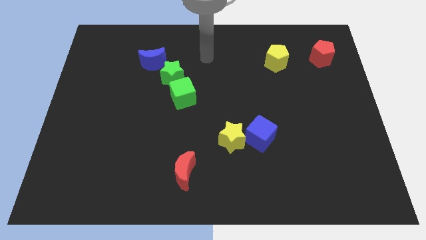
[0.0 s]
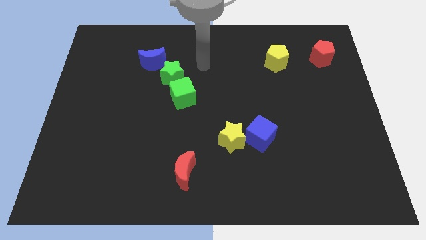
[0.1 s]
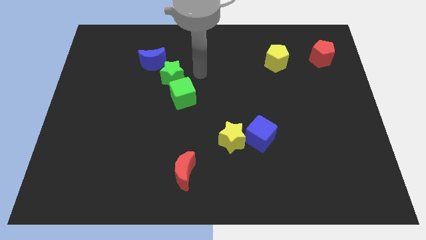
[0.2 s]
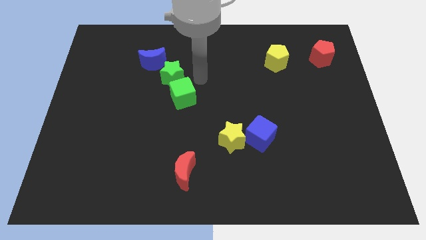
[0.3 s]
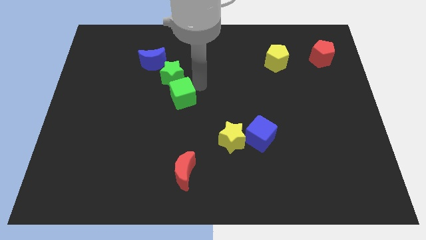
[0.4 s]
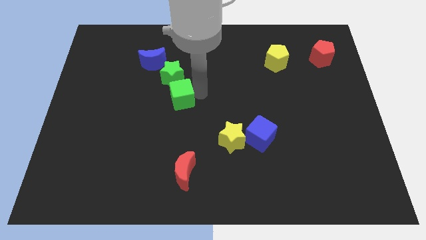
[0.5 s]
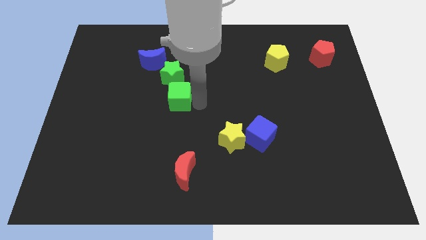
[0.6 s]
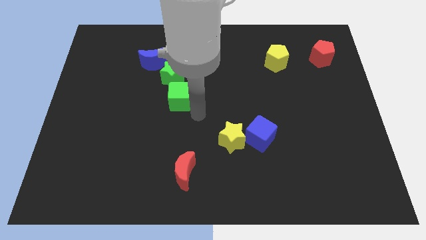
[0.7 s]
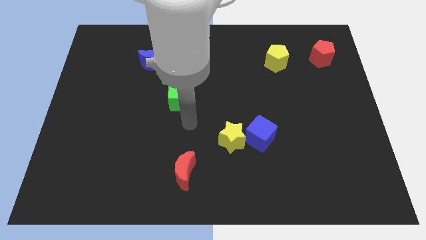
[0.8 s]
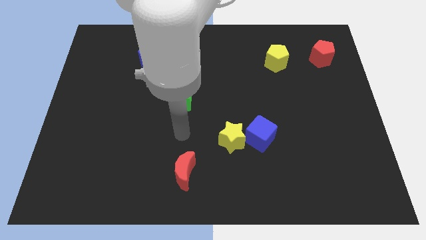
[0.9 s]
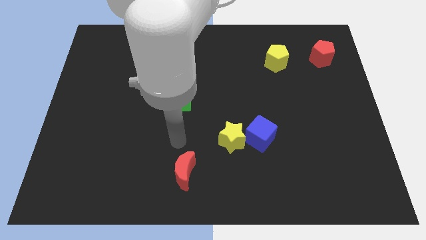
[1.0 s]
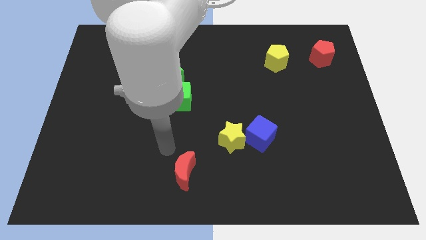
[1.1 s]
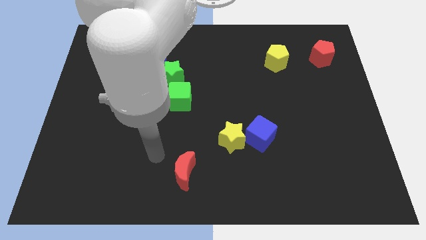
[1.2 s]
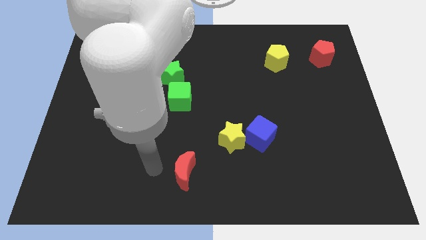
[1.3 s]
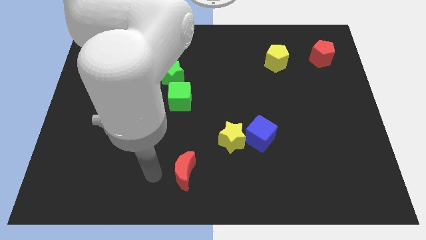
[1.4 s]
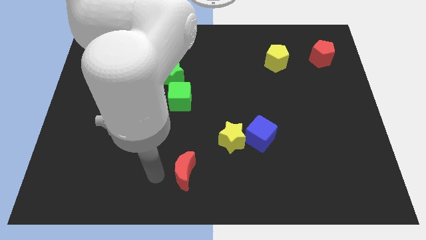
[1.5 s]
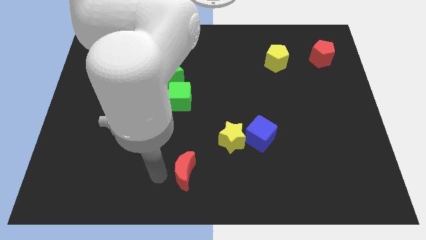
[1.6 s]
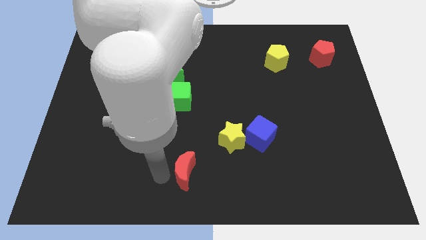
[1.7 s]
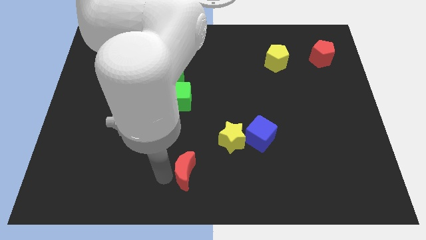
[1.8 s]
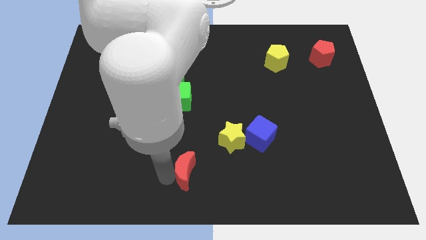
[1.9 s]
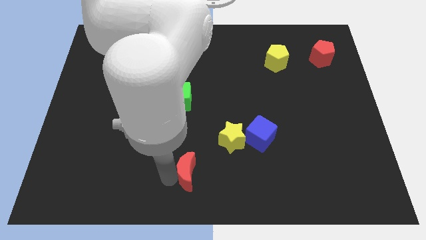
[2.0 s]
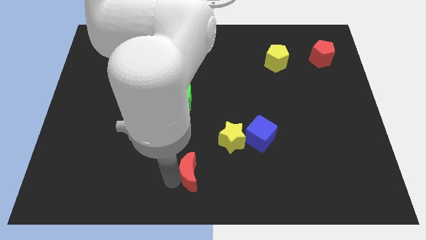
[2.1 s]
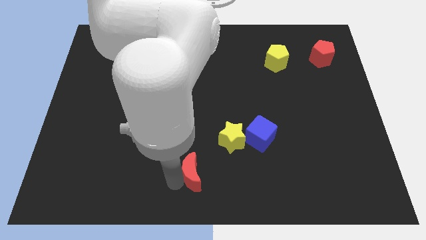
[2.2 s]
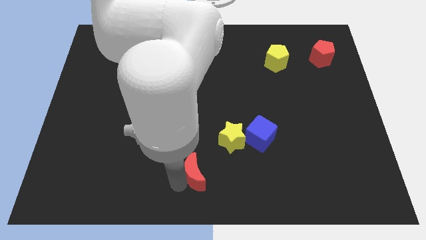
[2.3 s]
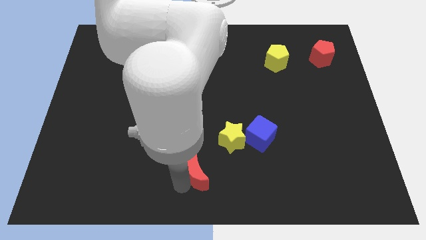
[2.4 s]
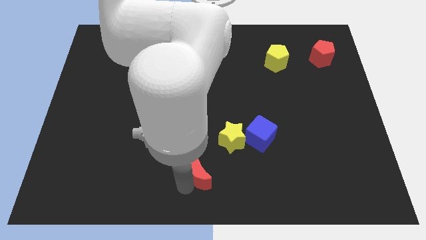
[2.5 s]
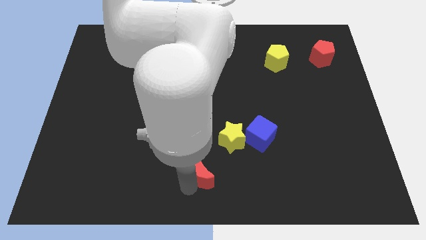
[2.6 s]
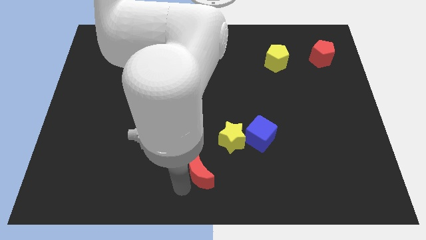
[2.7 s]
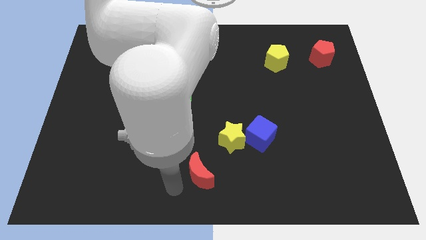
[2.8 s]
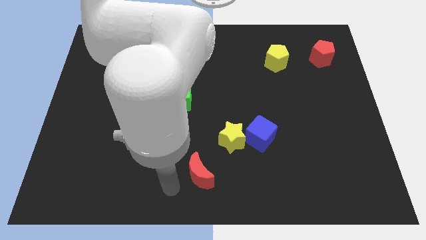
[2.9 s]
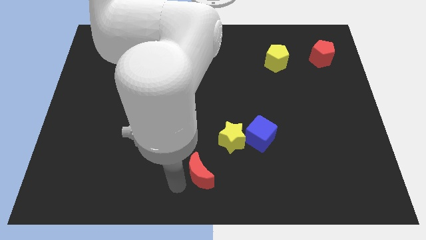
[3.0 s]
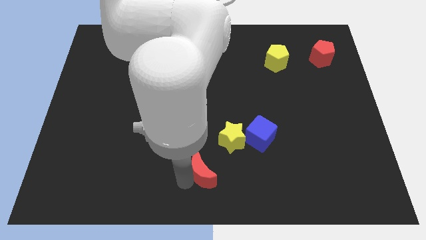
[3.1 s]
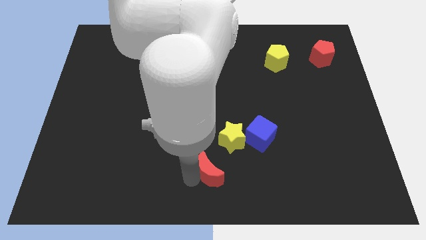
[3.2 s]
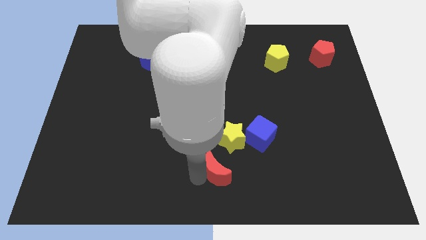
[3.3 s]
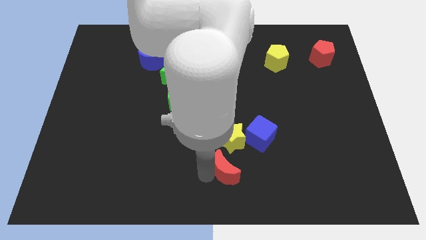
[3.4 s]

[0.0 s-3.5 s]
slightly slide the red moon right

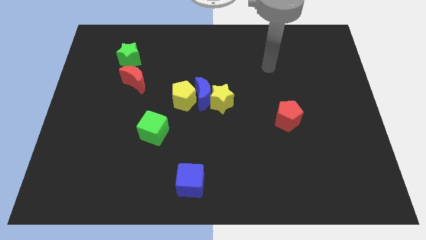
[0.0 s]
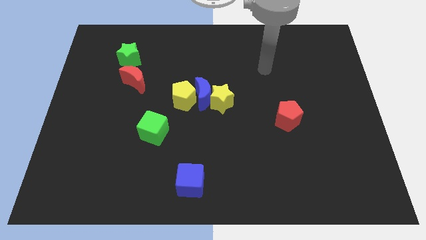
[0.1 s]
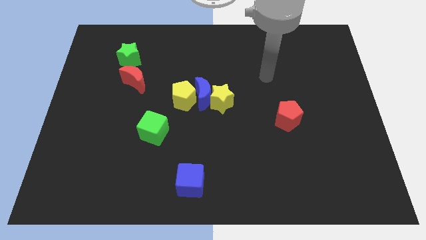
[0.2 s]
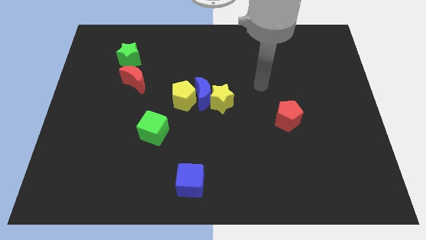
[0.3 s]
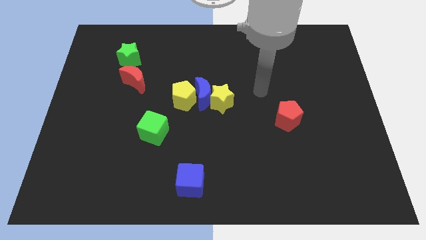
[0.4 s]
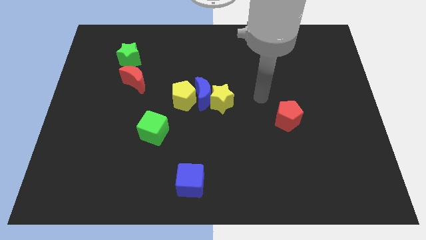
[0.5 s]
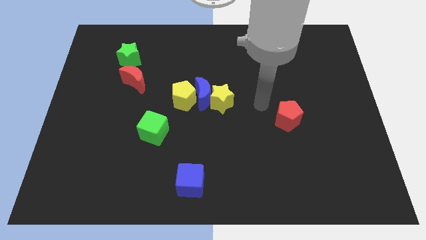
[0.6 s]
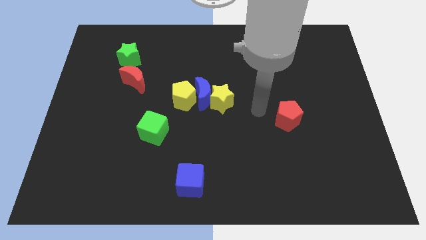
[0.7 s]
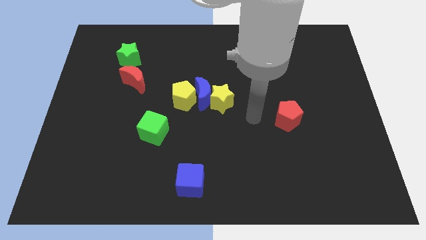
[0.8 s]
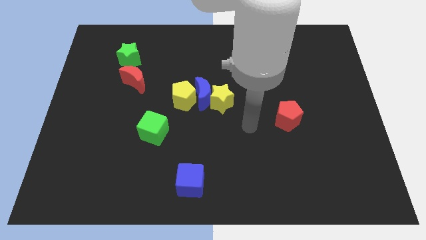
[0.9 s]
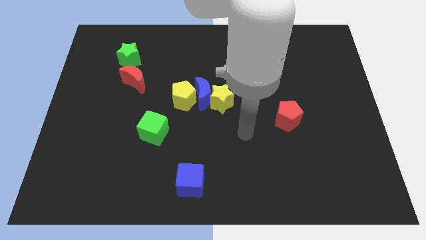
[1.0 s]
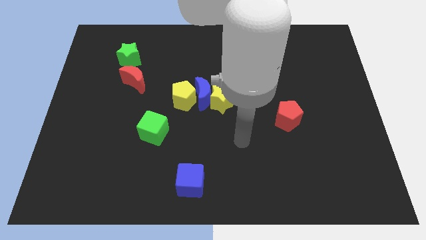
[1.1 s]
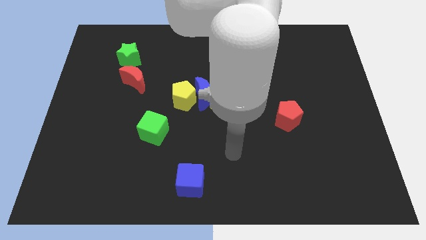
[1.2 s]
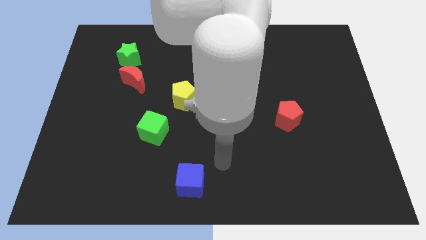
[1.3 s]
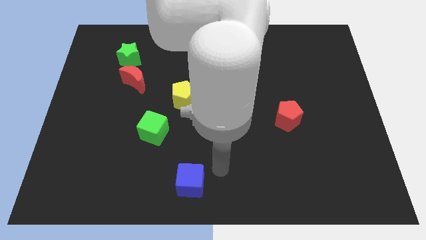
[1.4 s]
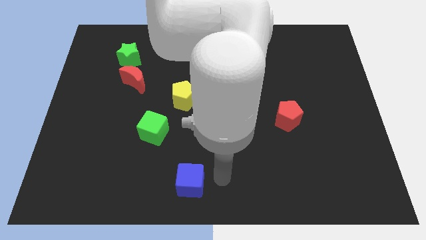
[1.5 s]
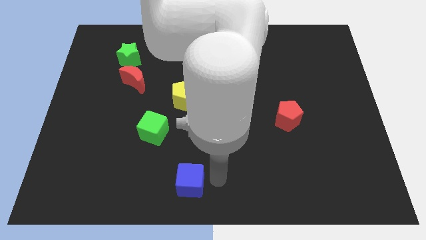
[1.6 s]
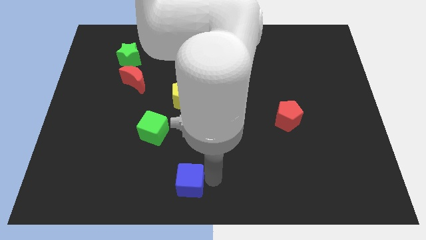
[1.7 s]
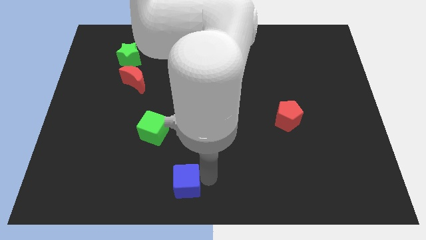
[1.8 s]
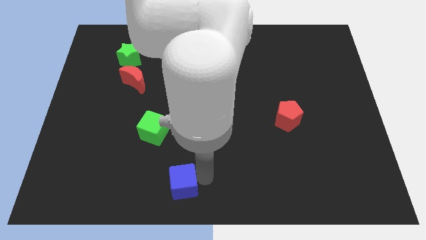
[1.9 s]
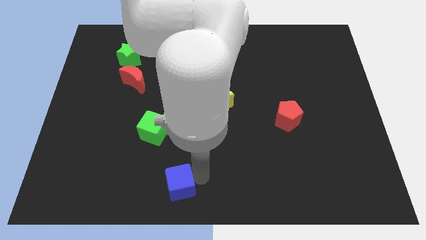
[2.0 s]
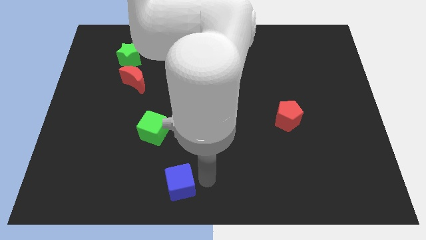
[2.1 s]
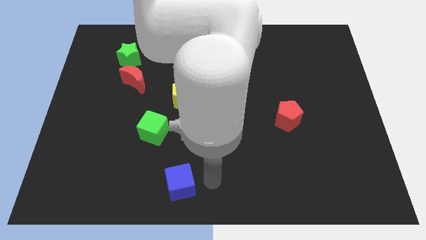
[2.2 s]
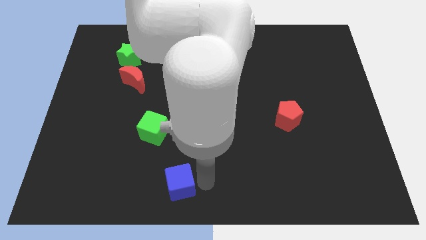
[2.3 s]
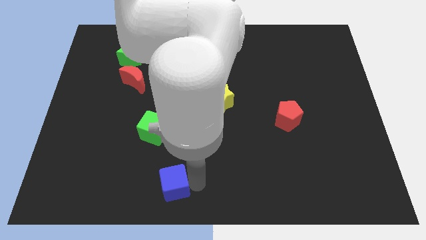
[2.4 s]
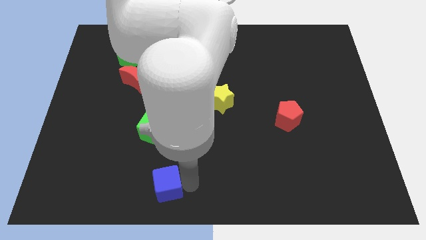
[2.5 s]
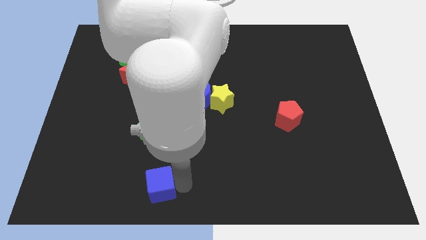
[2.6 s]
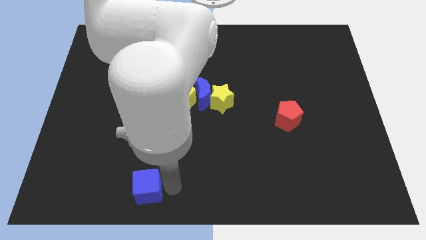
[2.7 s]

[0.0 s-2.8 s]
slightly push the blue cube to the left

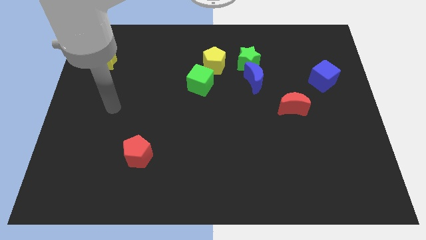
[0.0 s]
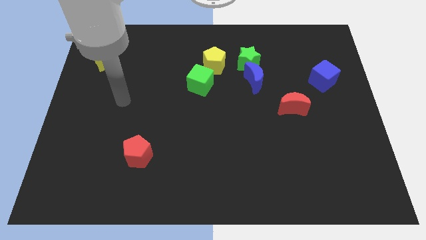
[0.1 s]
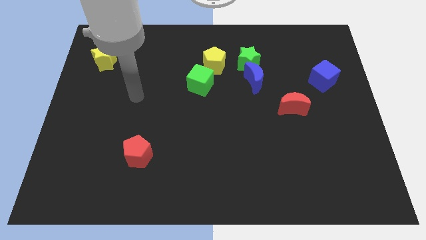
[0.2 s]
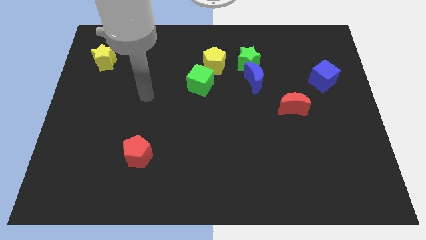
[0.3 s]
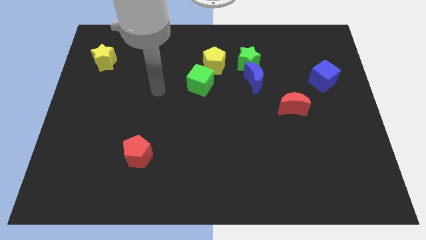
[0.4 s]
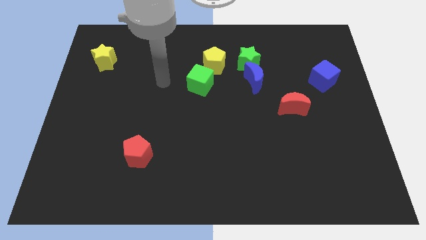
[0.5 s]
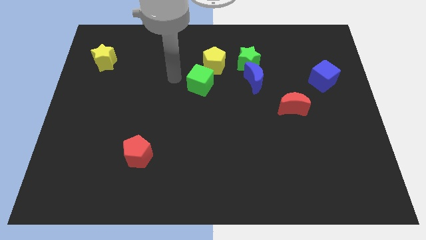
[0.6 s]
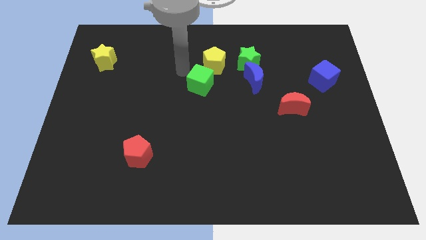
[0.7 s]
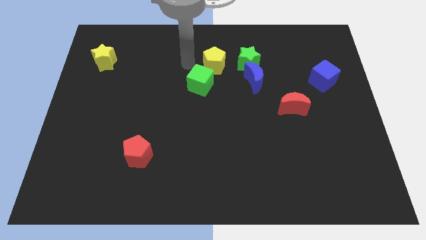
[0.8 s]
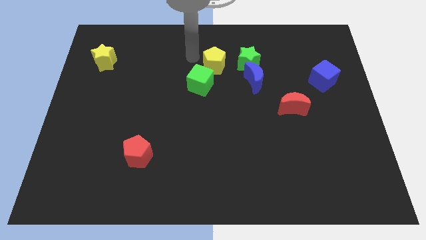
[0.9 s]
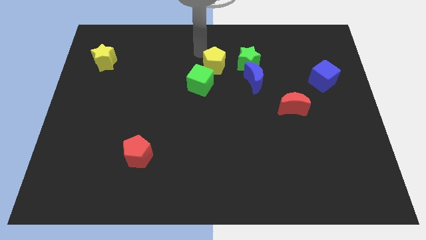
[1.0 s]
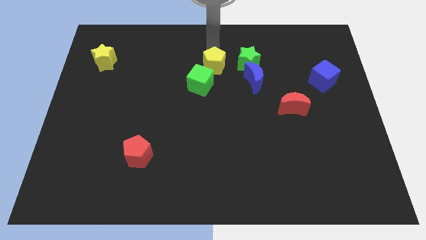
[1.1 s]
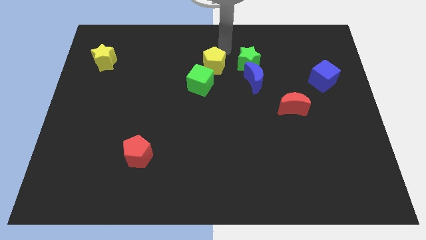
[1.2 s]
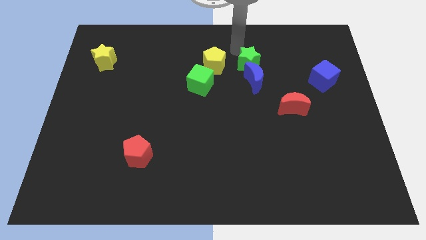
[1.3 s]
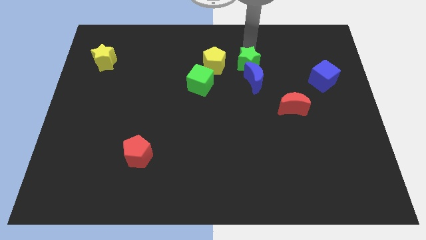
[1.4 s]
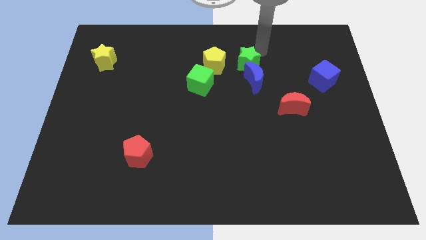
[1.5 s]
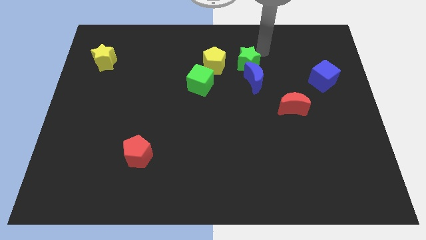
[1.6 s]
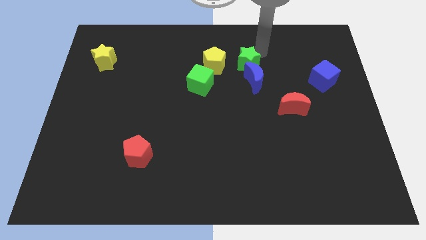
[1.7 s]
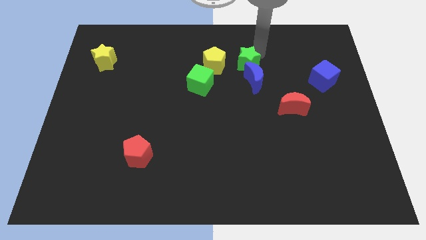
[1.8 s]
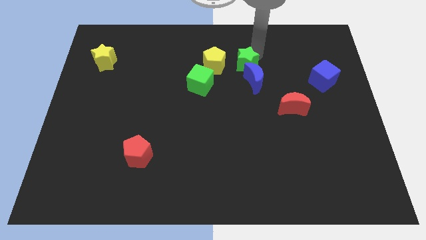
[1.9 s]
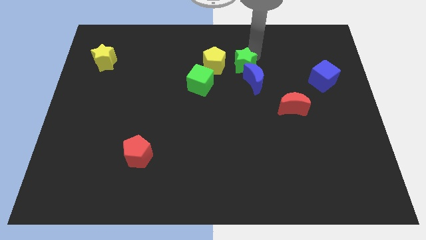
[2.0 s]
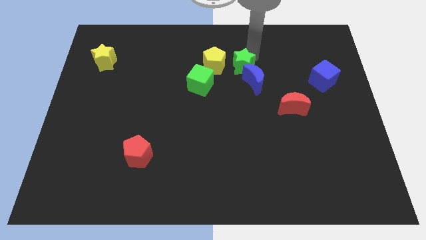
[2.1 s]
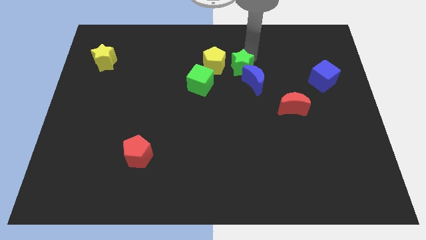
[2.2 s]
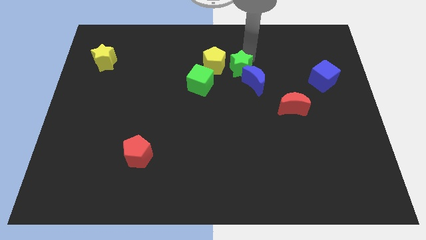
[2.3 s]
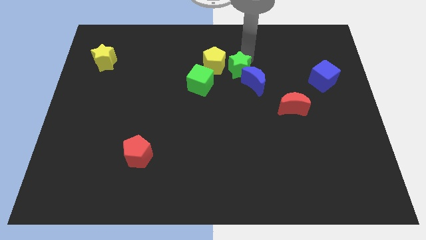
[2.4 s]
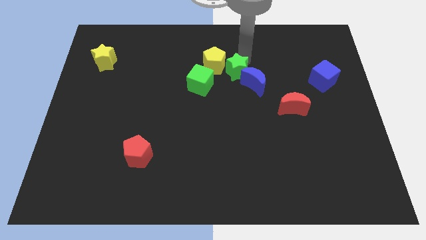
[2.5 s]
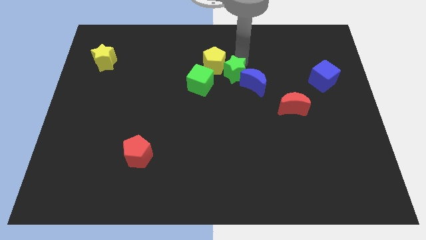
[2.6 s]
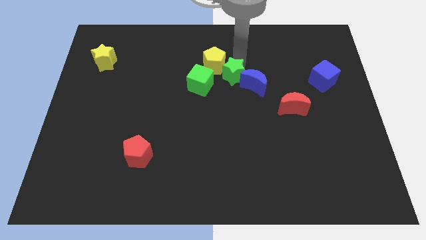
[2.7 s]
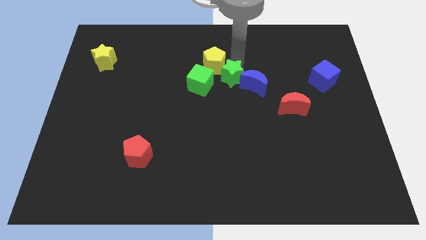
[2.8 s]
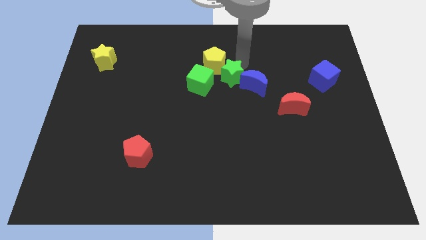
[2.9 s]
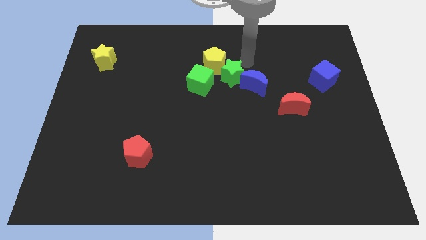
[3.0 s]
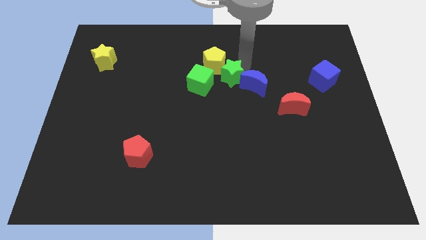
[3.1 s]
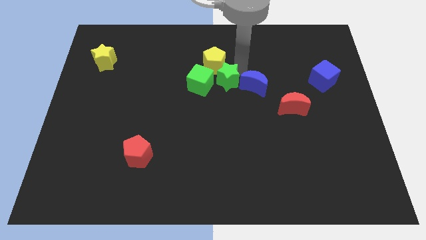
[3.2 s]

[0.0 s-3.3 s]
slide the green star down and left diagonally slightly
